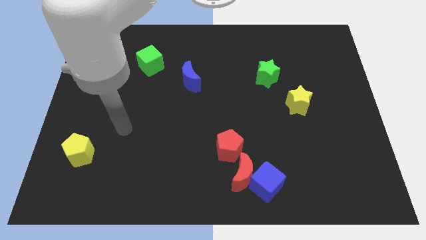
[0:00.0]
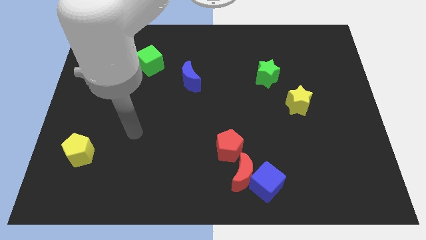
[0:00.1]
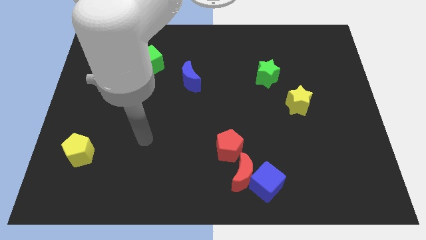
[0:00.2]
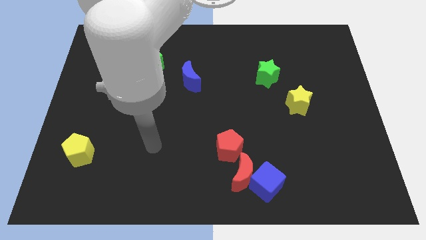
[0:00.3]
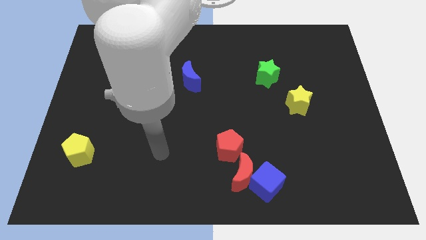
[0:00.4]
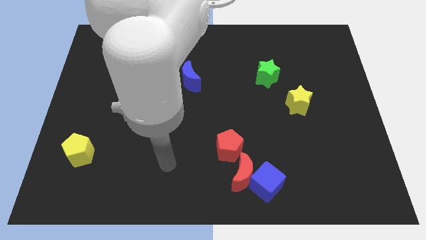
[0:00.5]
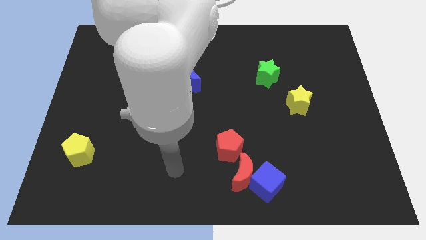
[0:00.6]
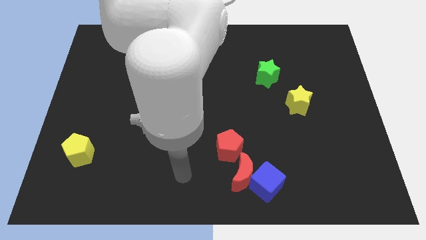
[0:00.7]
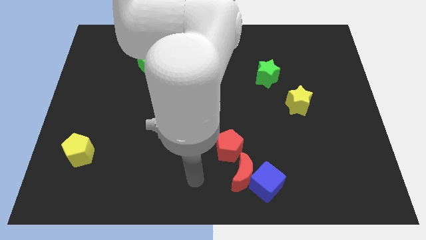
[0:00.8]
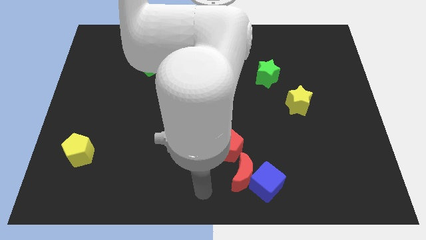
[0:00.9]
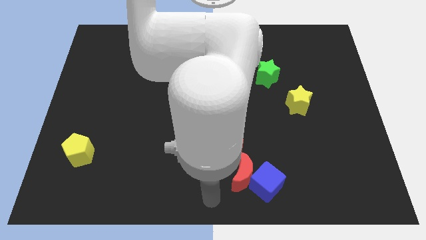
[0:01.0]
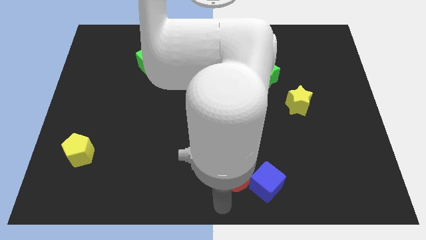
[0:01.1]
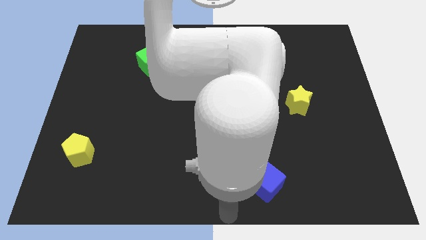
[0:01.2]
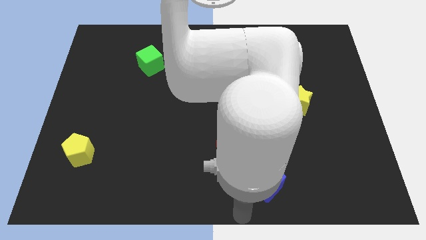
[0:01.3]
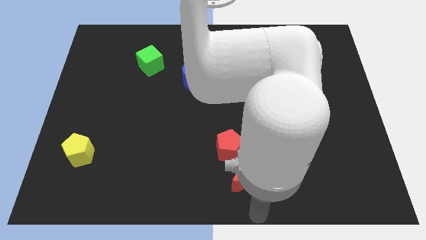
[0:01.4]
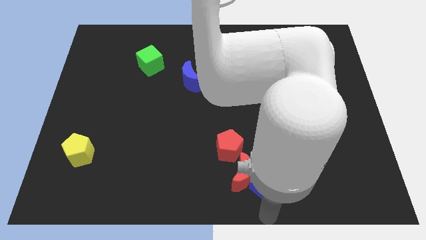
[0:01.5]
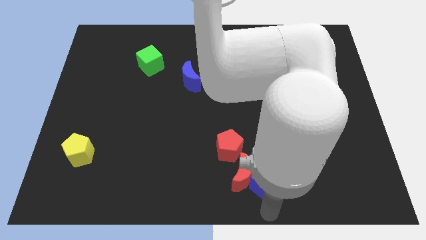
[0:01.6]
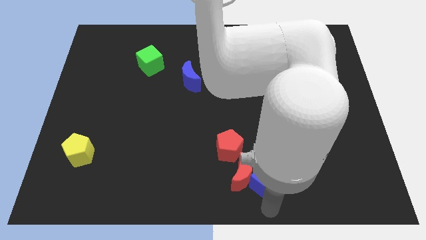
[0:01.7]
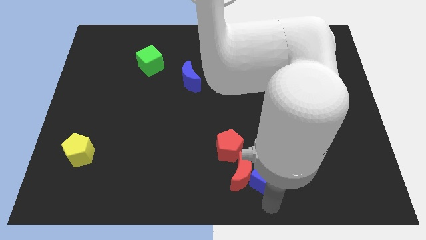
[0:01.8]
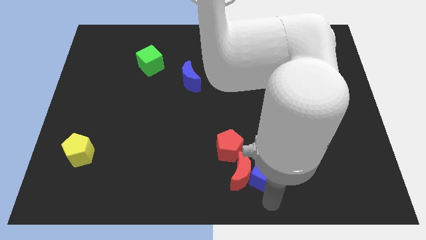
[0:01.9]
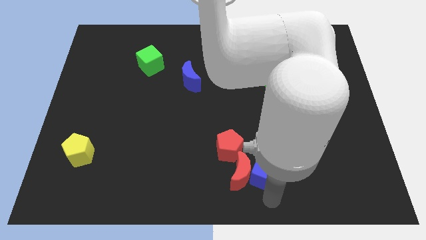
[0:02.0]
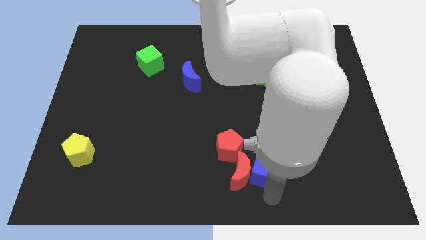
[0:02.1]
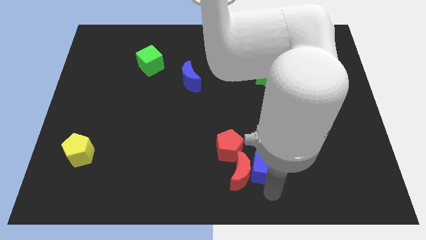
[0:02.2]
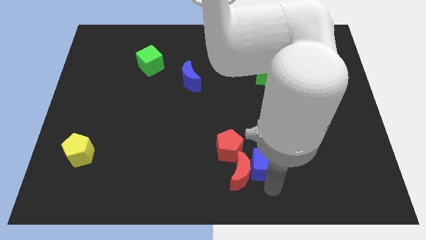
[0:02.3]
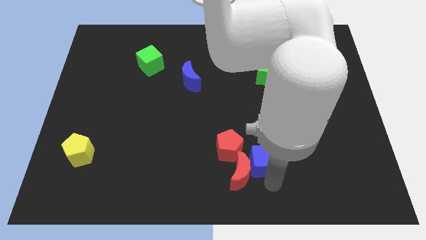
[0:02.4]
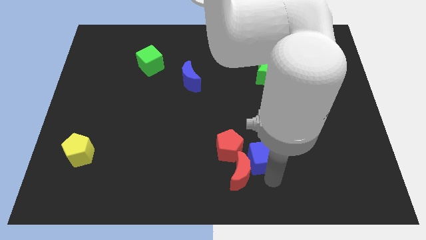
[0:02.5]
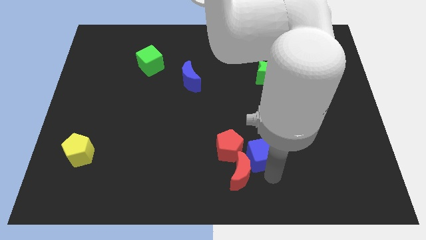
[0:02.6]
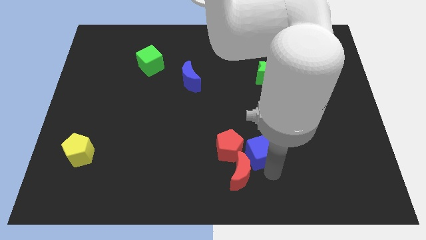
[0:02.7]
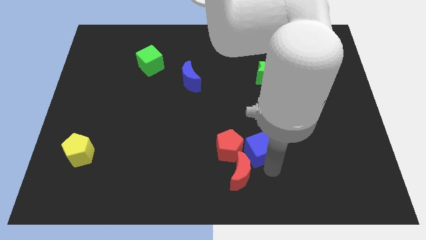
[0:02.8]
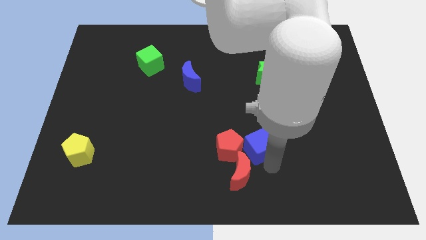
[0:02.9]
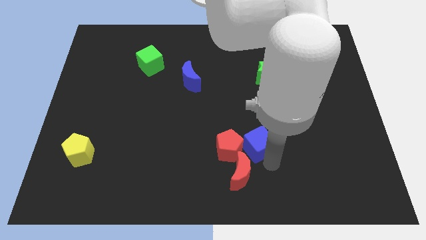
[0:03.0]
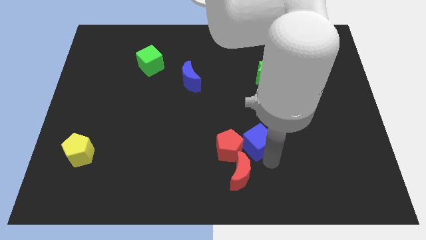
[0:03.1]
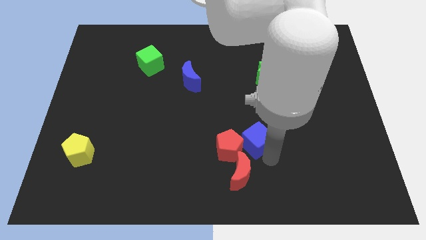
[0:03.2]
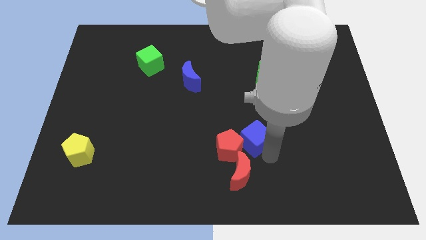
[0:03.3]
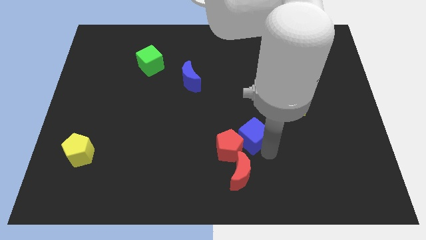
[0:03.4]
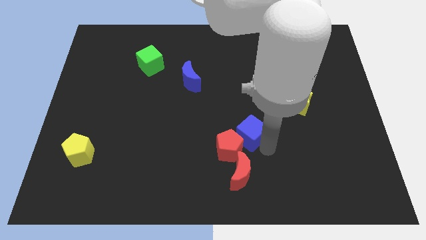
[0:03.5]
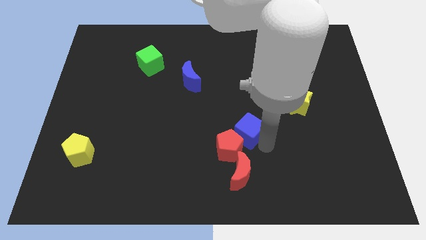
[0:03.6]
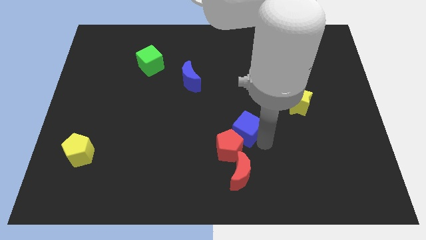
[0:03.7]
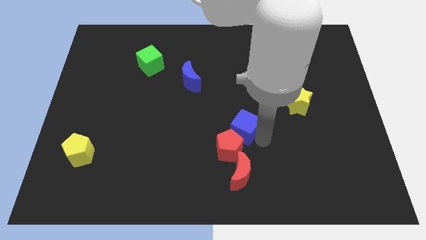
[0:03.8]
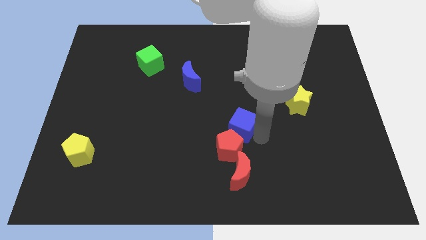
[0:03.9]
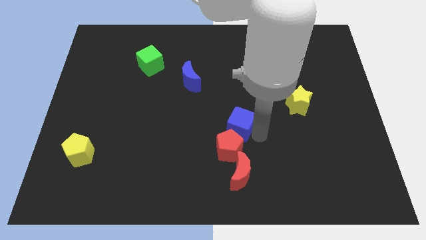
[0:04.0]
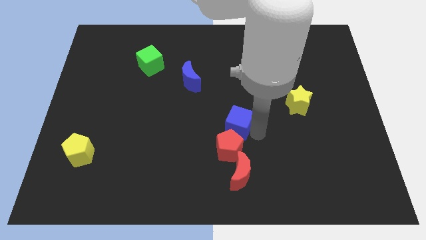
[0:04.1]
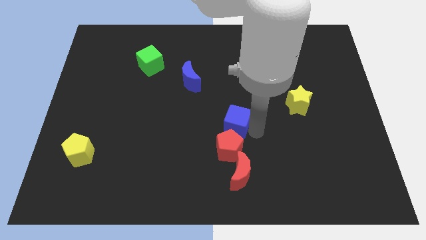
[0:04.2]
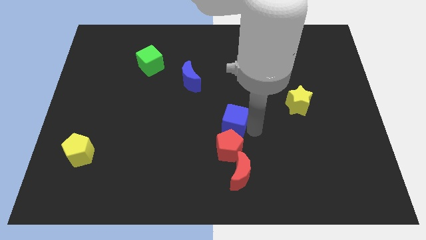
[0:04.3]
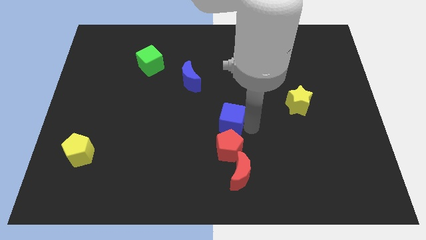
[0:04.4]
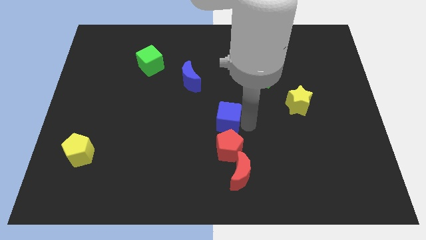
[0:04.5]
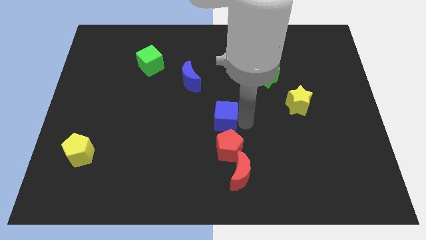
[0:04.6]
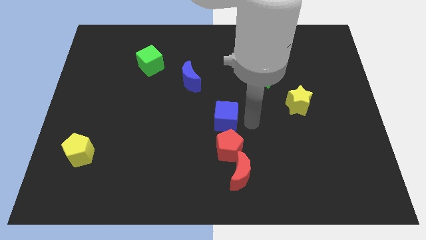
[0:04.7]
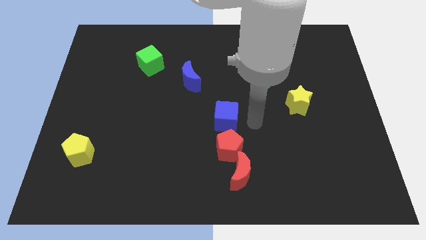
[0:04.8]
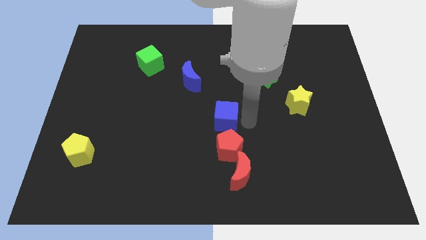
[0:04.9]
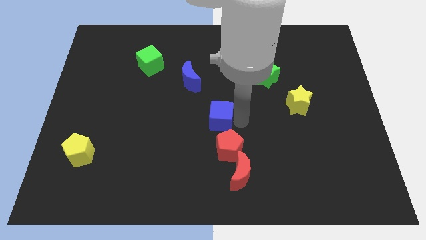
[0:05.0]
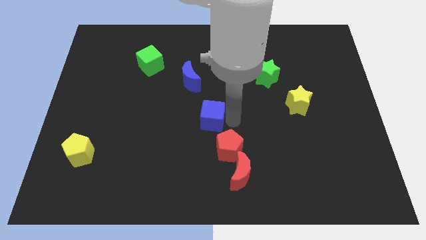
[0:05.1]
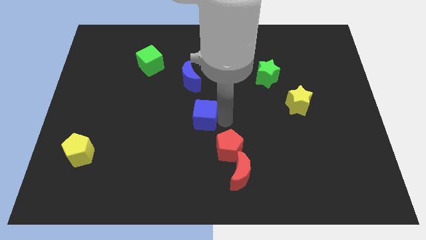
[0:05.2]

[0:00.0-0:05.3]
move the blue cube diagonally upwards and left

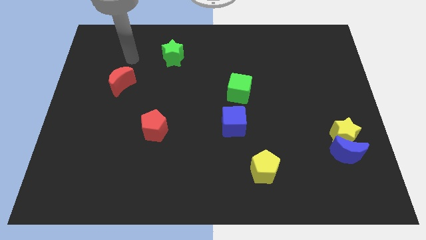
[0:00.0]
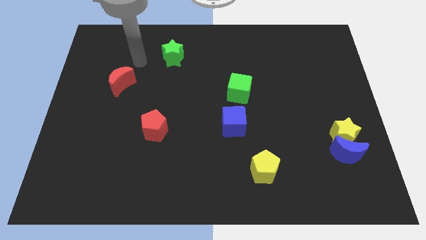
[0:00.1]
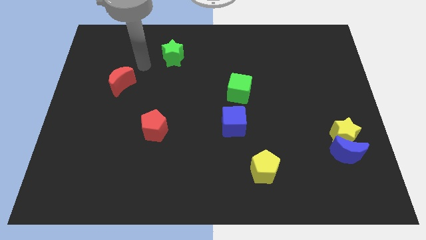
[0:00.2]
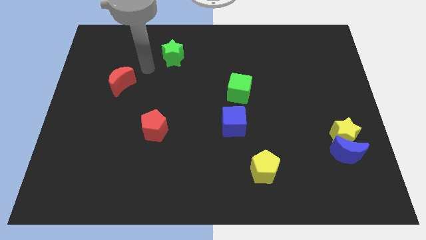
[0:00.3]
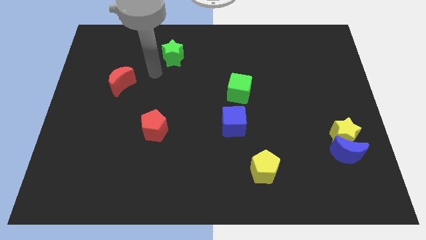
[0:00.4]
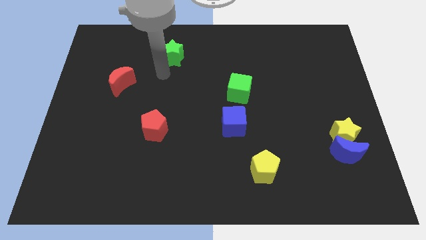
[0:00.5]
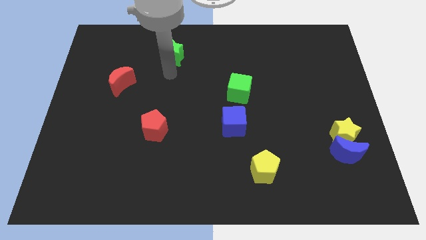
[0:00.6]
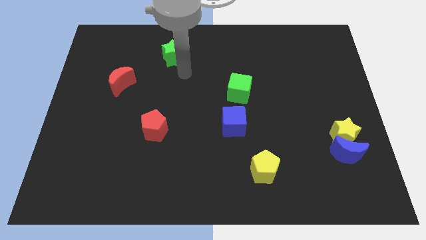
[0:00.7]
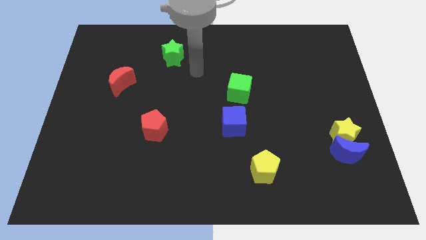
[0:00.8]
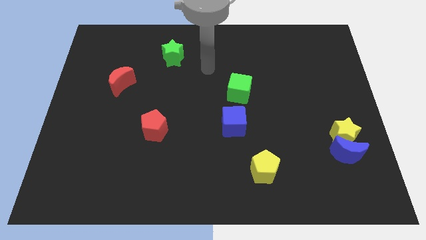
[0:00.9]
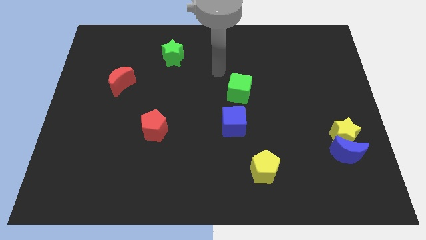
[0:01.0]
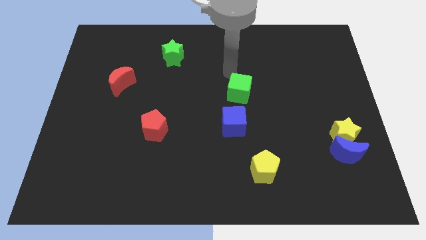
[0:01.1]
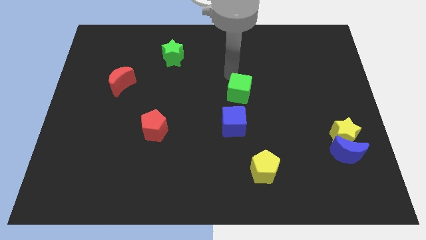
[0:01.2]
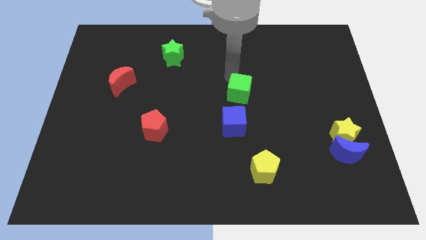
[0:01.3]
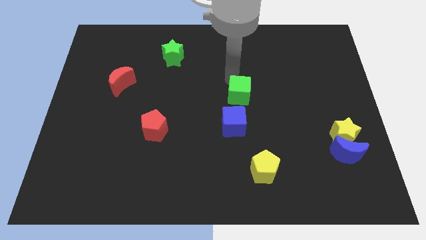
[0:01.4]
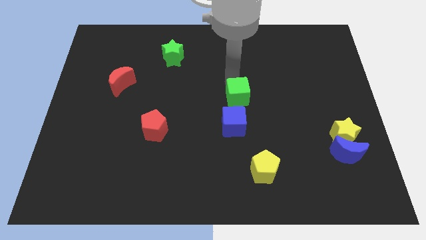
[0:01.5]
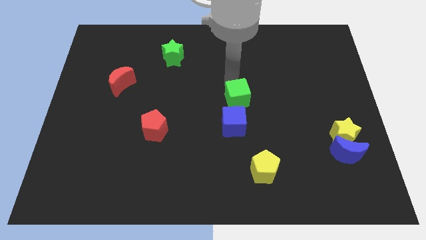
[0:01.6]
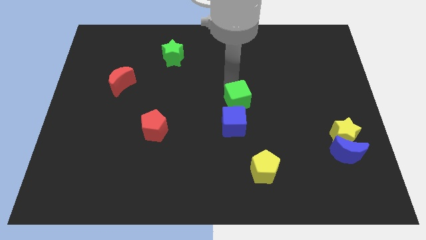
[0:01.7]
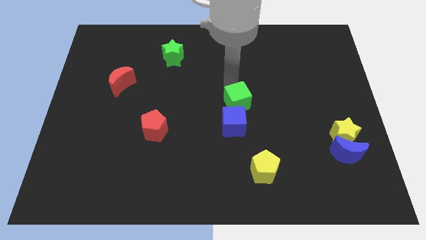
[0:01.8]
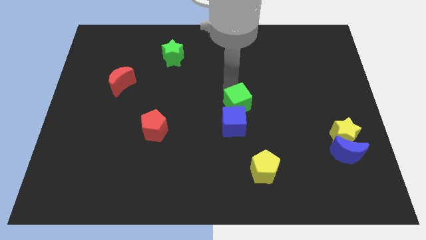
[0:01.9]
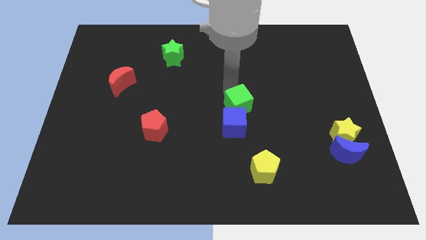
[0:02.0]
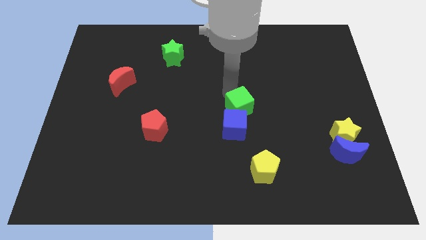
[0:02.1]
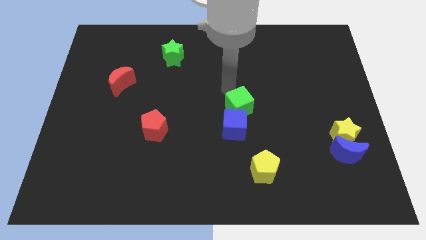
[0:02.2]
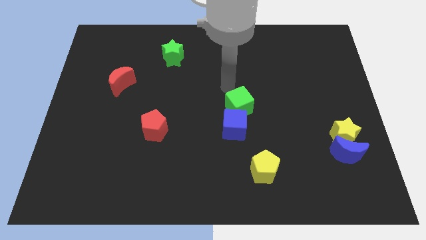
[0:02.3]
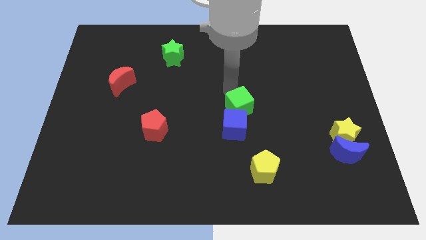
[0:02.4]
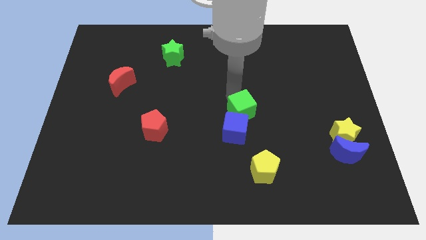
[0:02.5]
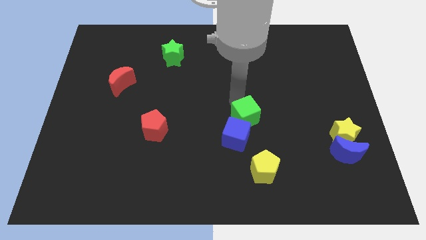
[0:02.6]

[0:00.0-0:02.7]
slide the green cube a little down
